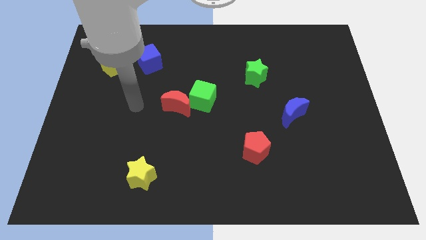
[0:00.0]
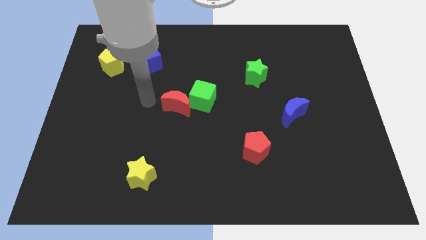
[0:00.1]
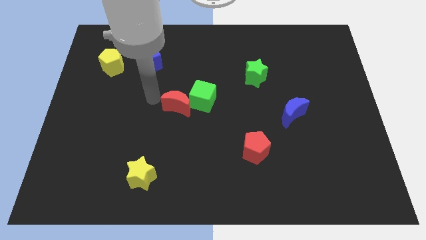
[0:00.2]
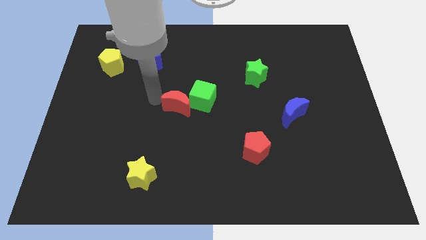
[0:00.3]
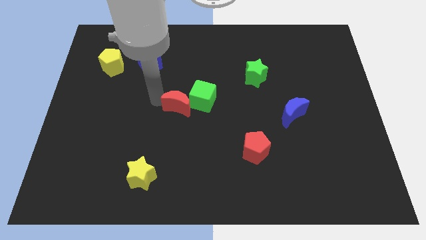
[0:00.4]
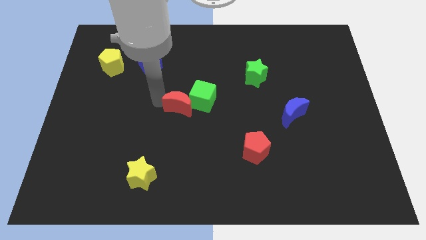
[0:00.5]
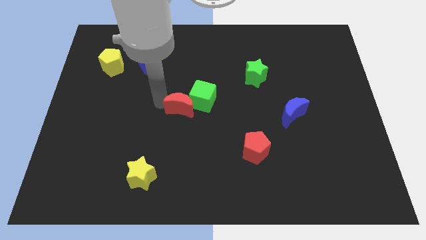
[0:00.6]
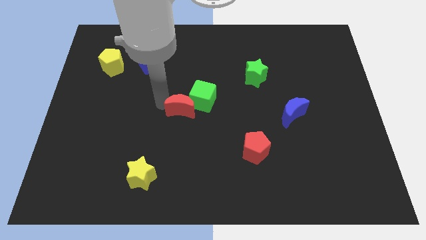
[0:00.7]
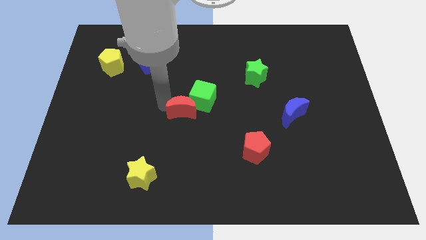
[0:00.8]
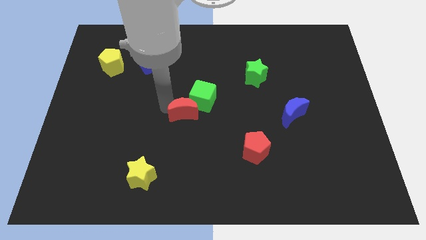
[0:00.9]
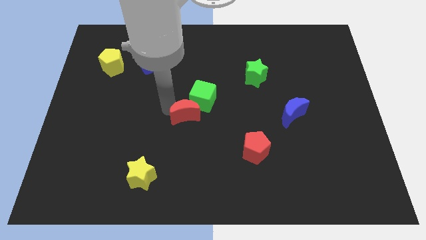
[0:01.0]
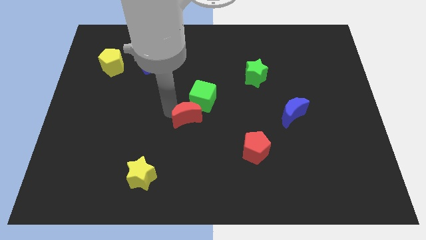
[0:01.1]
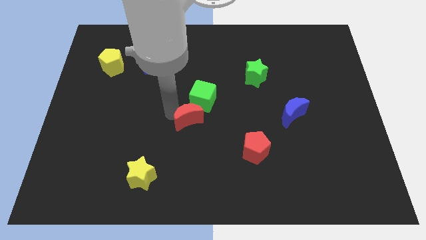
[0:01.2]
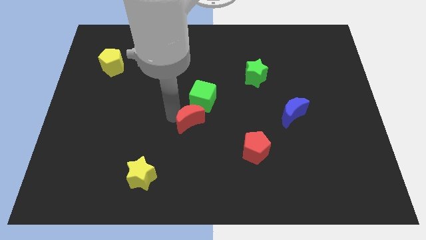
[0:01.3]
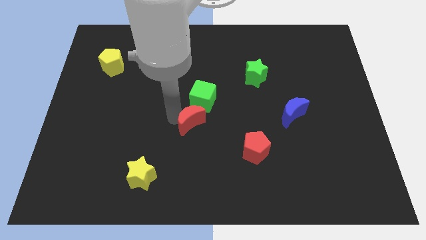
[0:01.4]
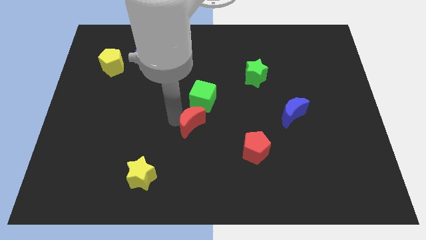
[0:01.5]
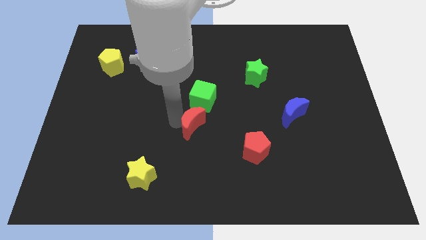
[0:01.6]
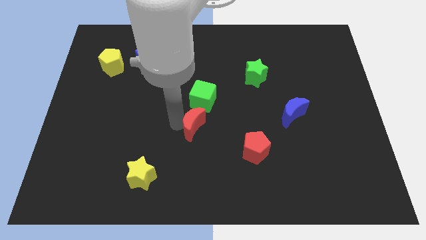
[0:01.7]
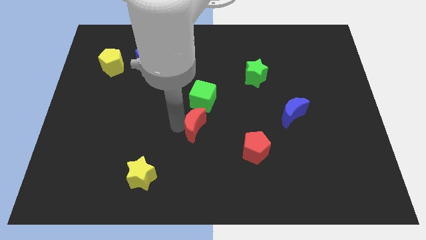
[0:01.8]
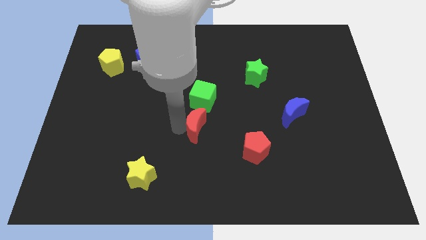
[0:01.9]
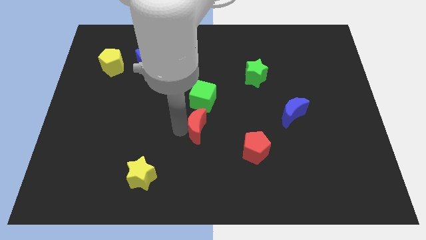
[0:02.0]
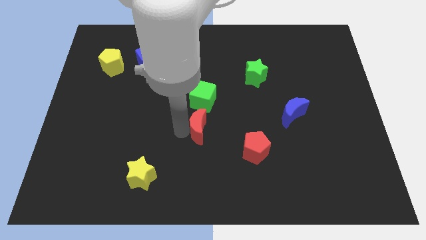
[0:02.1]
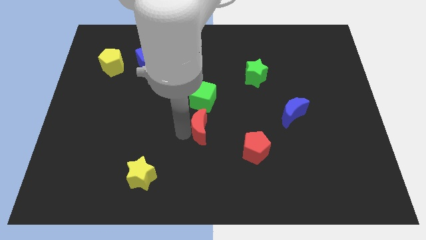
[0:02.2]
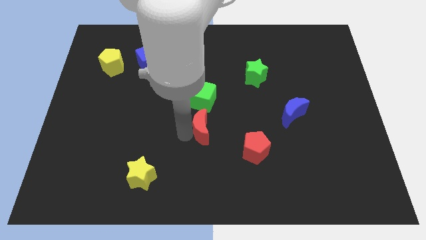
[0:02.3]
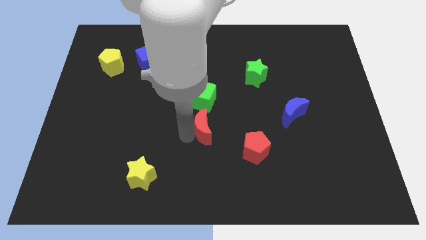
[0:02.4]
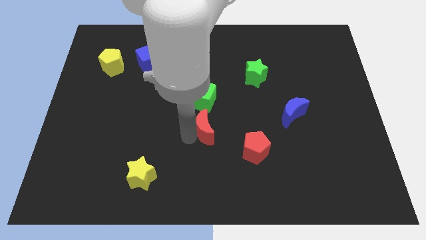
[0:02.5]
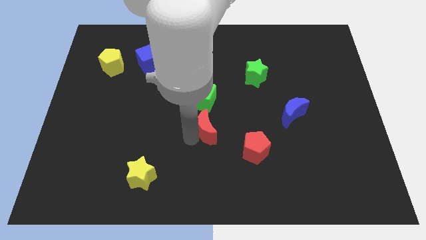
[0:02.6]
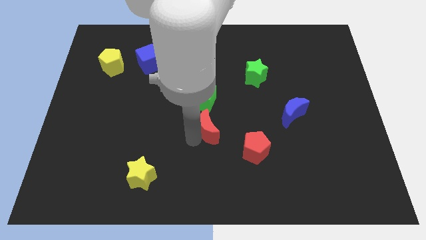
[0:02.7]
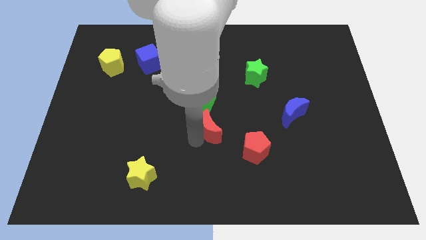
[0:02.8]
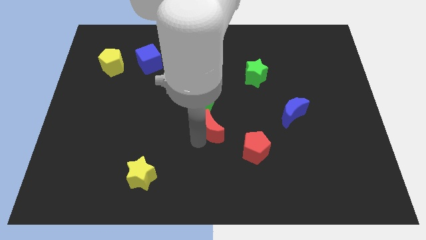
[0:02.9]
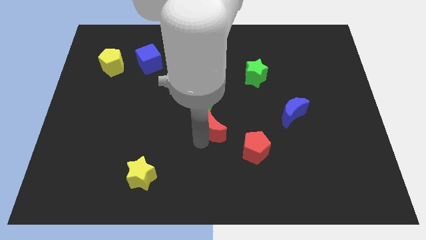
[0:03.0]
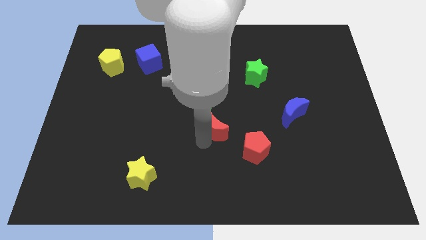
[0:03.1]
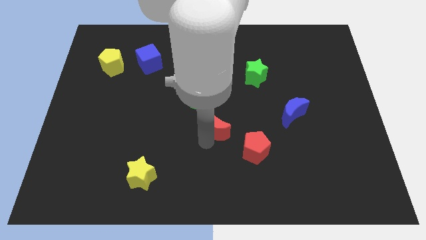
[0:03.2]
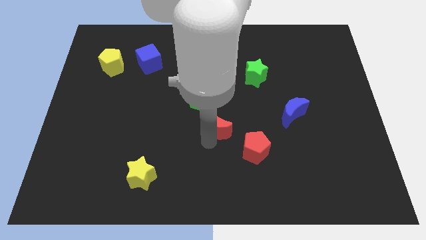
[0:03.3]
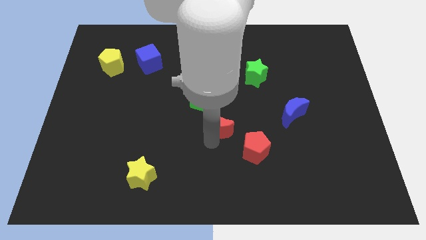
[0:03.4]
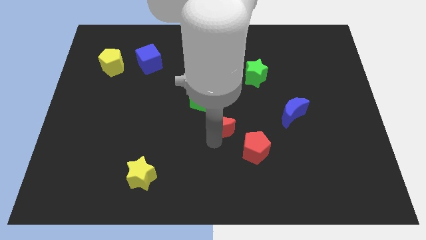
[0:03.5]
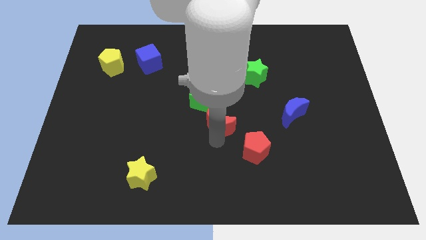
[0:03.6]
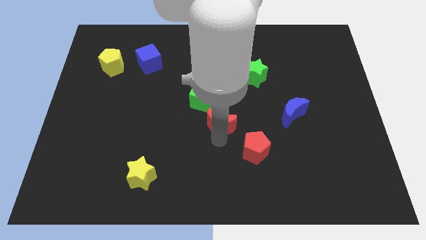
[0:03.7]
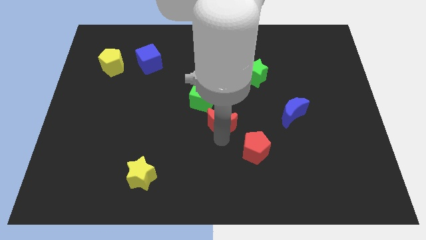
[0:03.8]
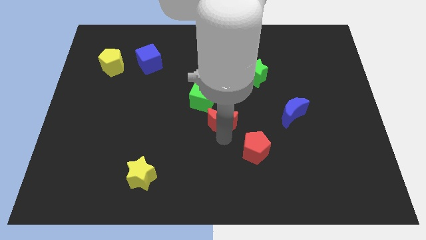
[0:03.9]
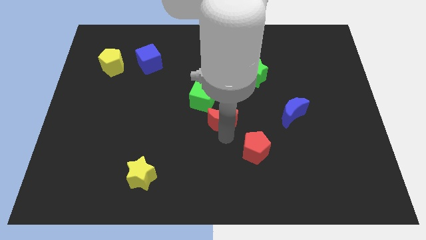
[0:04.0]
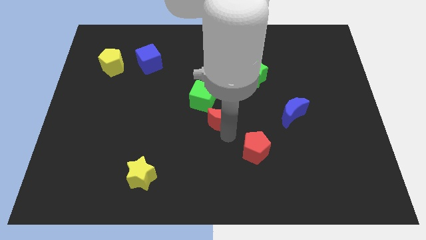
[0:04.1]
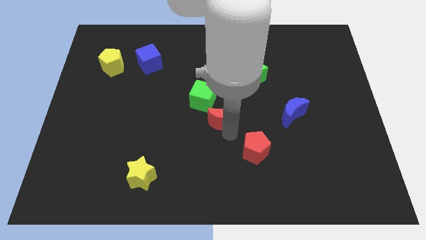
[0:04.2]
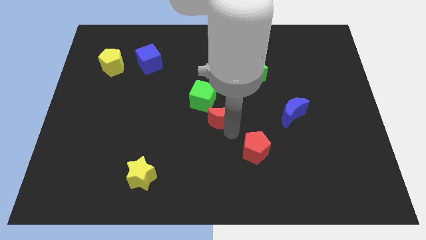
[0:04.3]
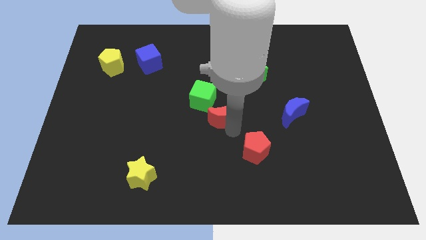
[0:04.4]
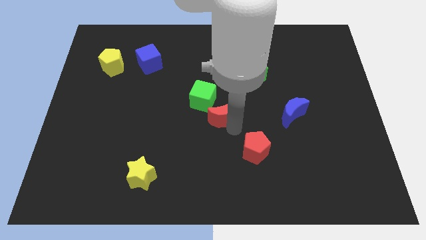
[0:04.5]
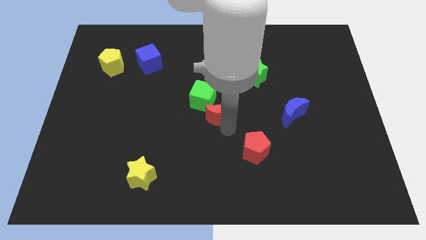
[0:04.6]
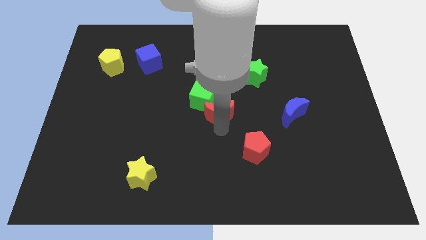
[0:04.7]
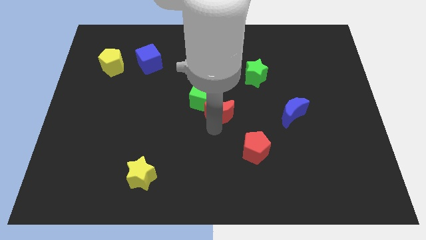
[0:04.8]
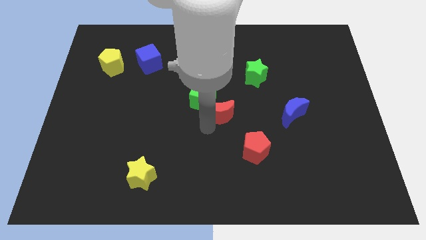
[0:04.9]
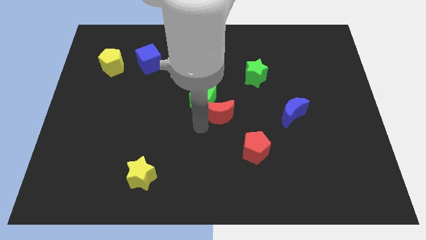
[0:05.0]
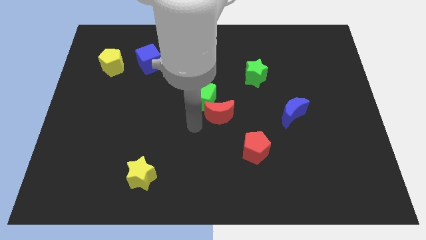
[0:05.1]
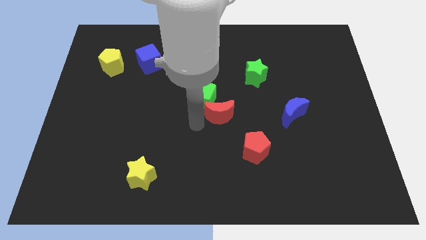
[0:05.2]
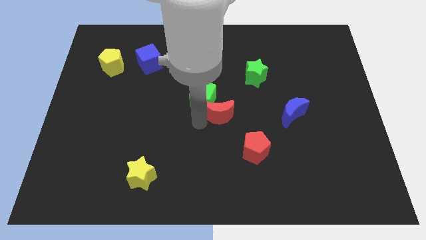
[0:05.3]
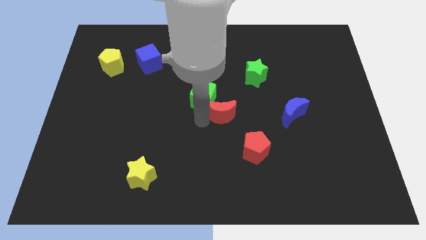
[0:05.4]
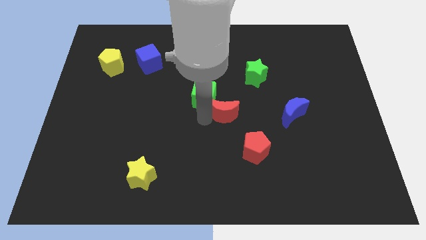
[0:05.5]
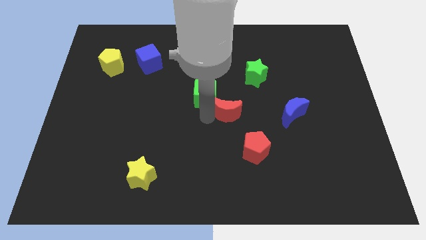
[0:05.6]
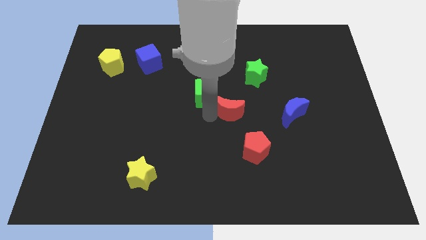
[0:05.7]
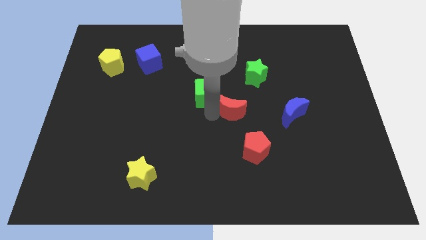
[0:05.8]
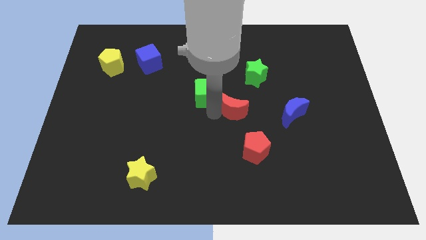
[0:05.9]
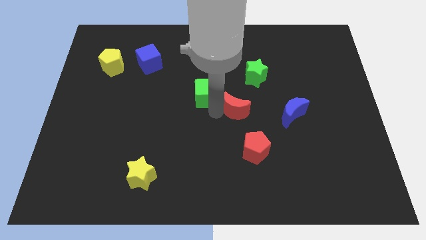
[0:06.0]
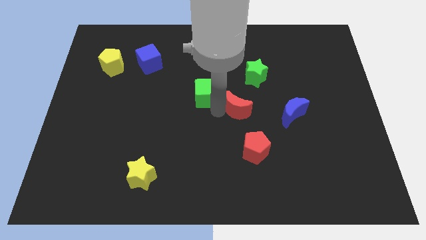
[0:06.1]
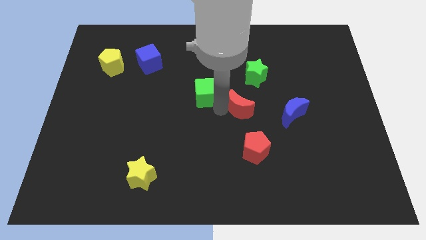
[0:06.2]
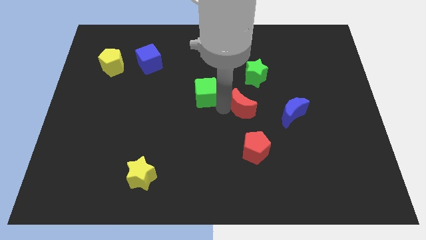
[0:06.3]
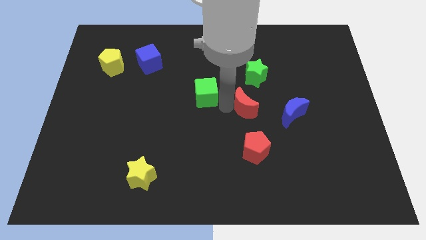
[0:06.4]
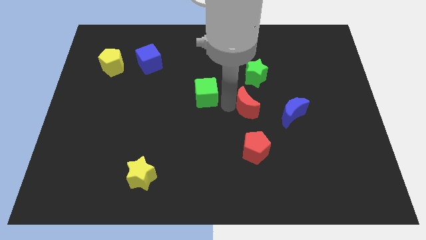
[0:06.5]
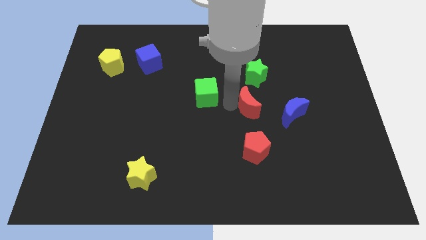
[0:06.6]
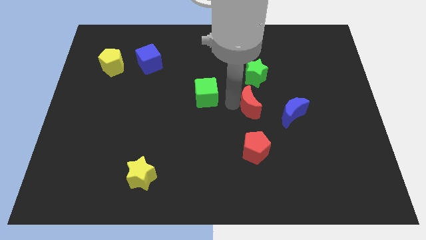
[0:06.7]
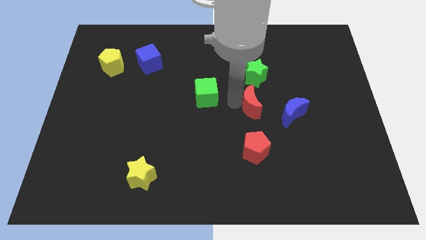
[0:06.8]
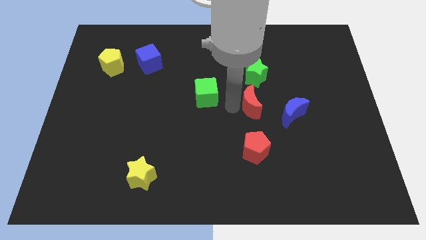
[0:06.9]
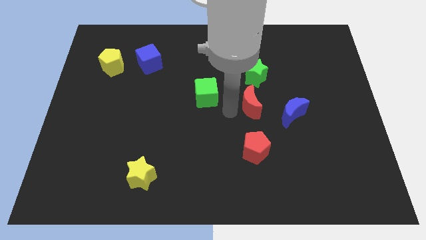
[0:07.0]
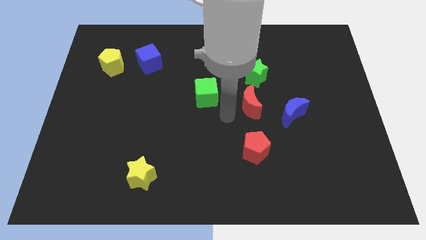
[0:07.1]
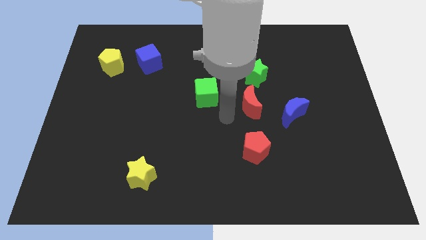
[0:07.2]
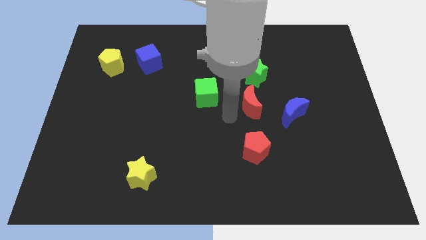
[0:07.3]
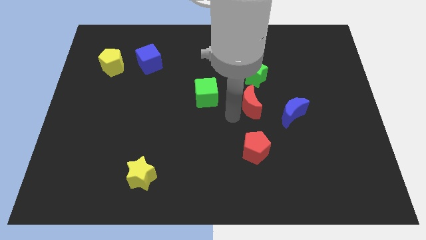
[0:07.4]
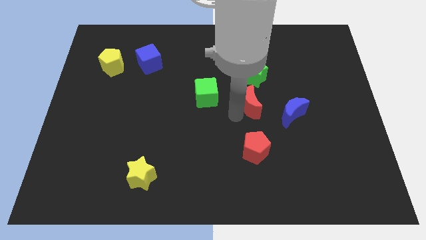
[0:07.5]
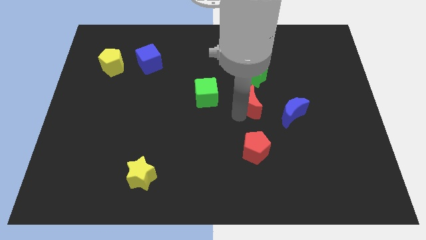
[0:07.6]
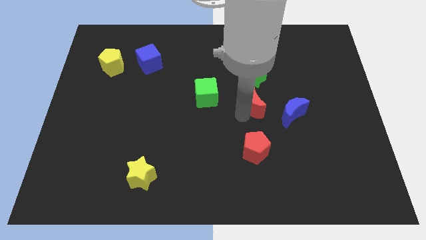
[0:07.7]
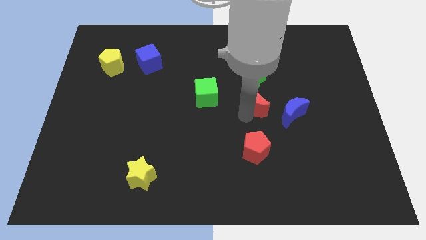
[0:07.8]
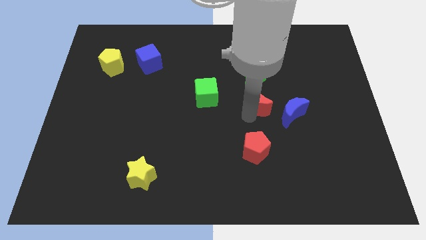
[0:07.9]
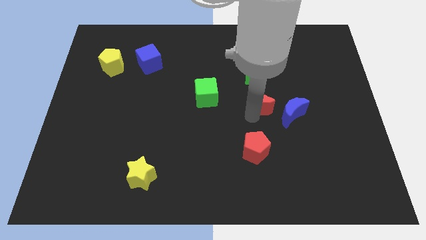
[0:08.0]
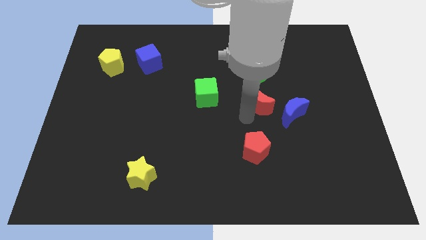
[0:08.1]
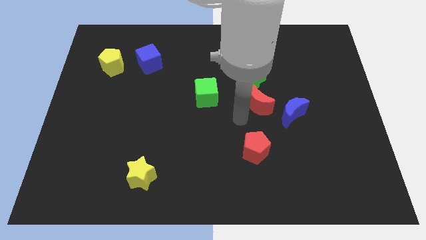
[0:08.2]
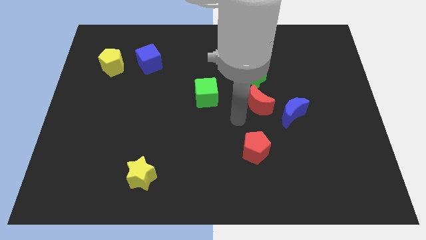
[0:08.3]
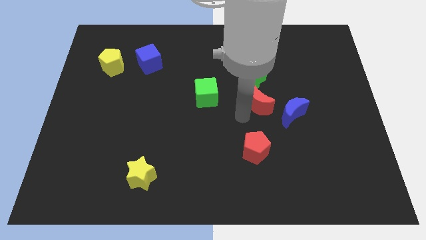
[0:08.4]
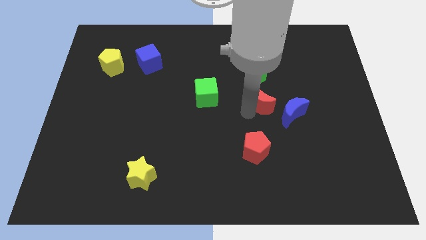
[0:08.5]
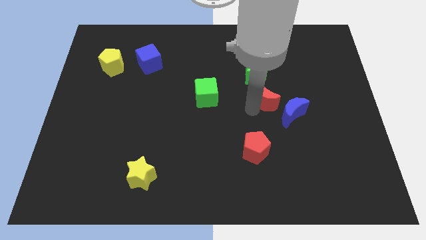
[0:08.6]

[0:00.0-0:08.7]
push the red moon right
